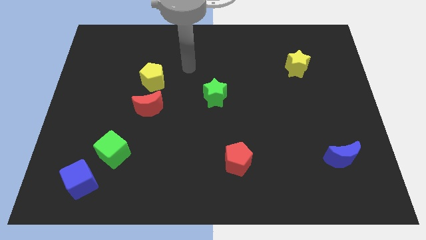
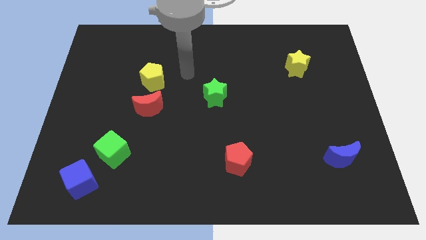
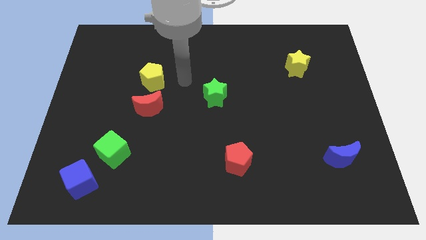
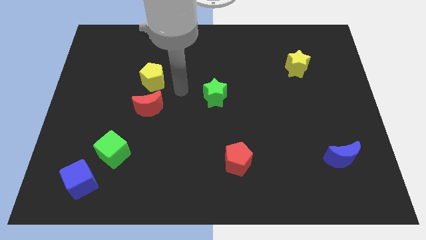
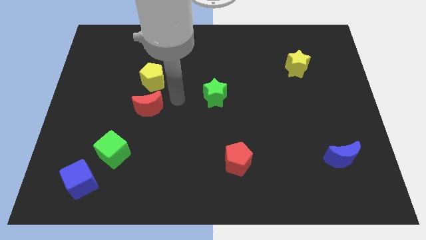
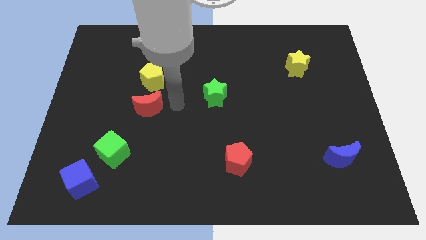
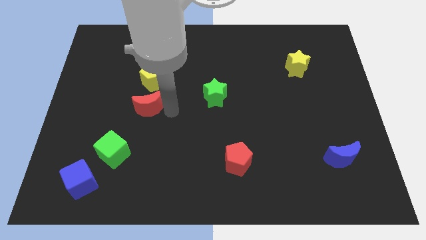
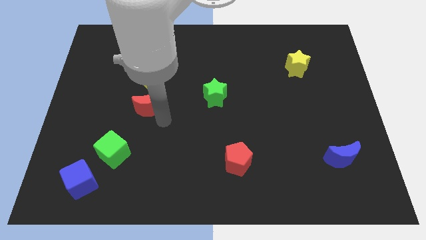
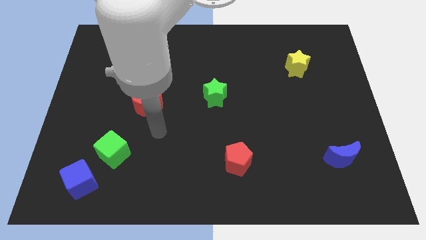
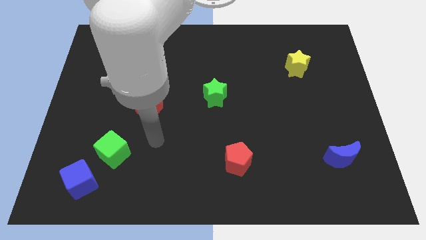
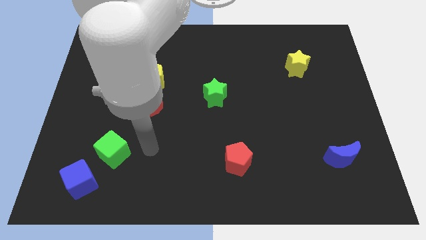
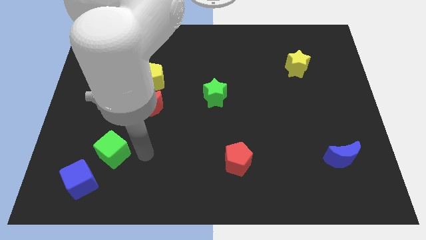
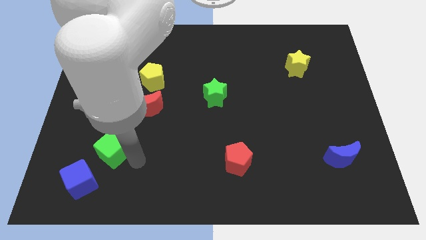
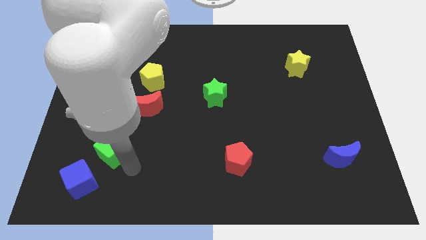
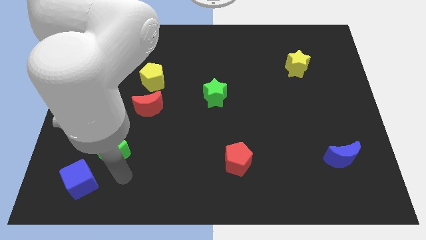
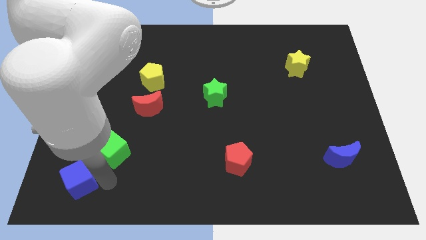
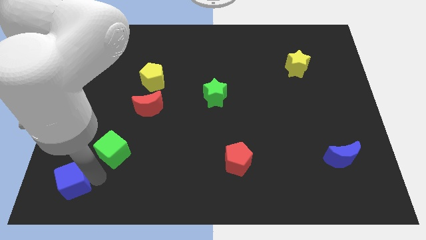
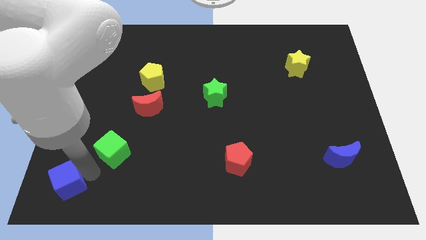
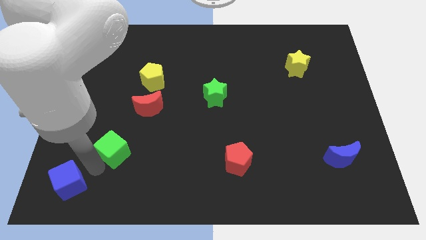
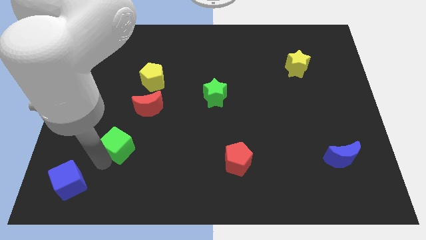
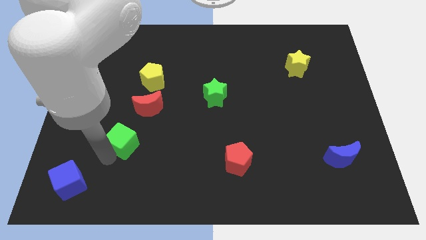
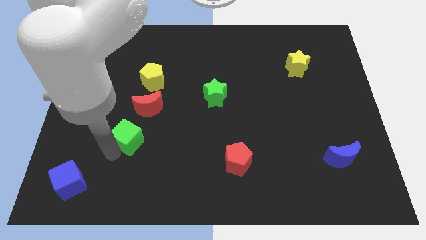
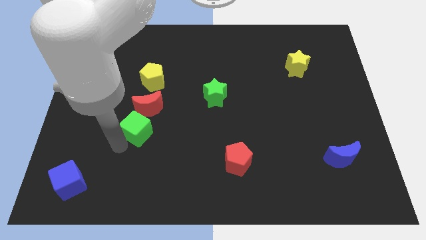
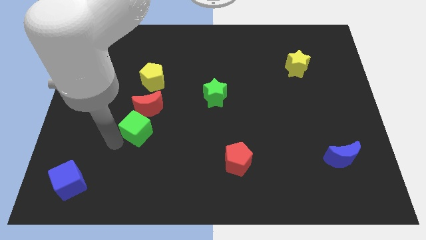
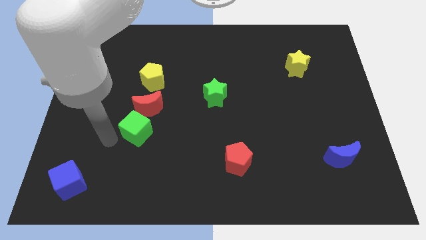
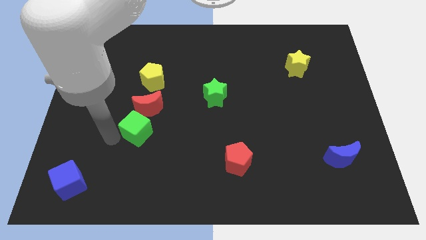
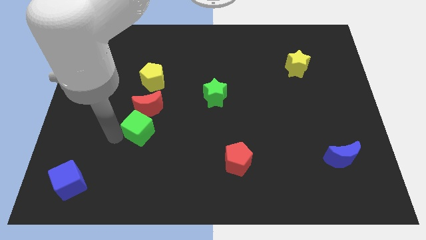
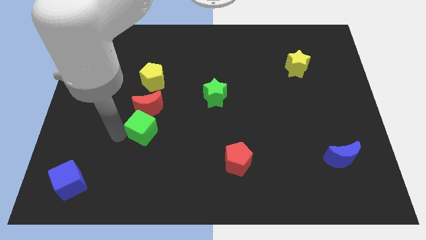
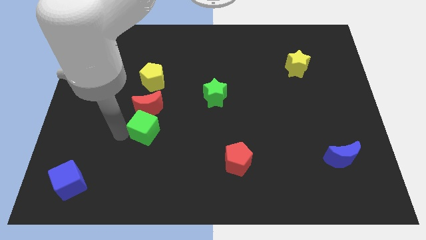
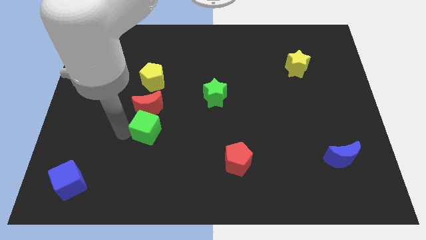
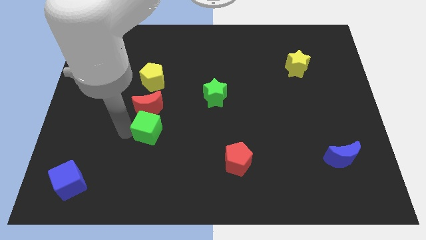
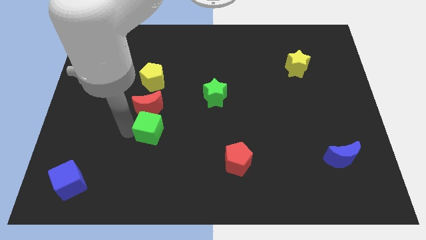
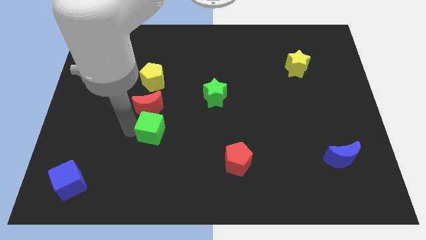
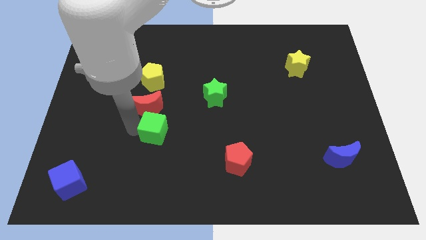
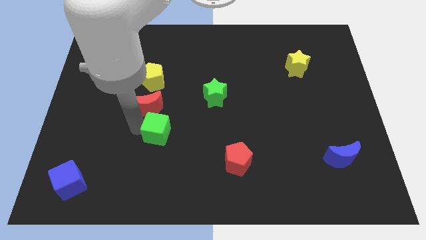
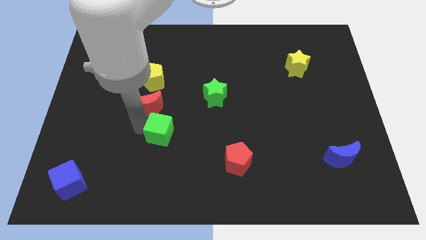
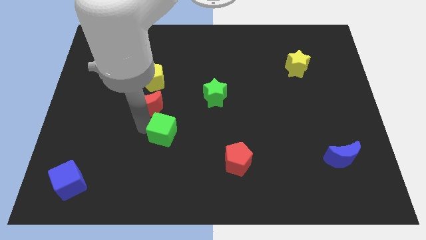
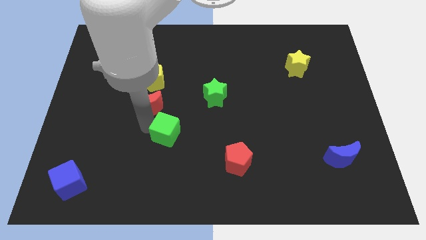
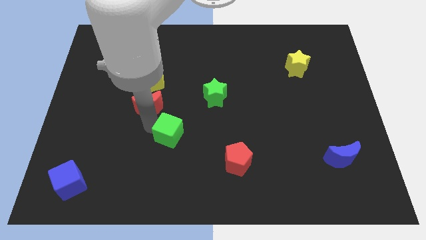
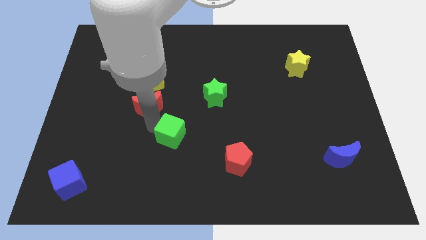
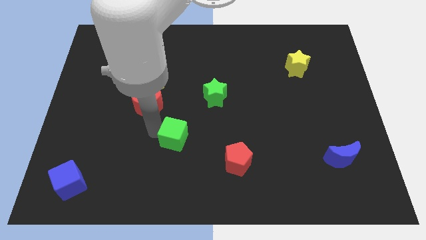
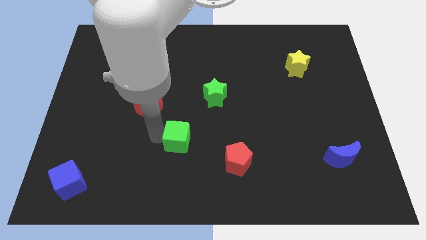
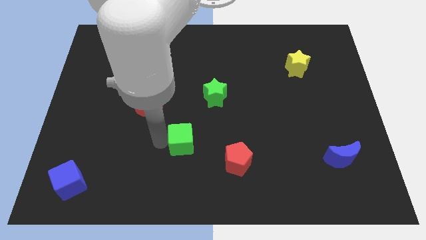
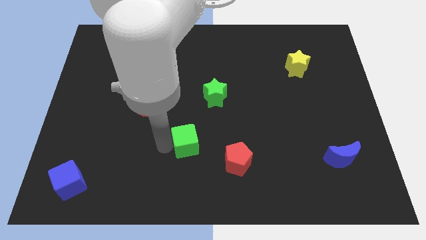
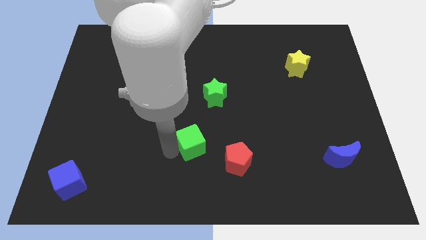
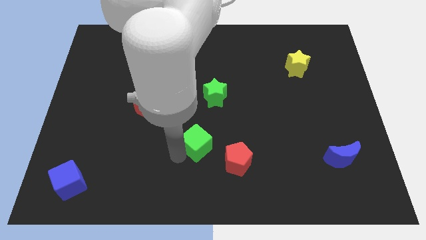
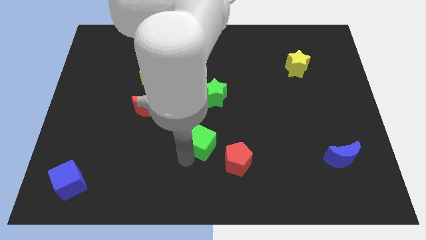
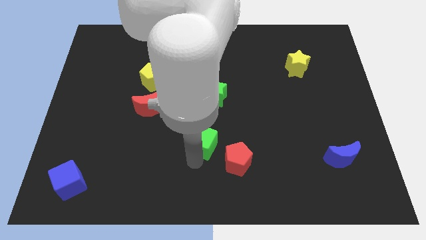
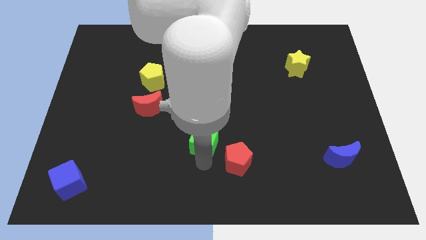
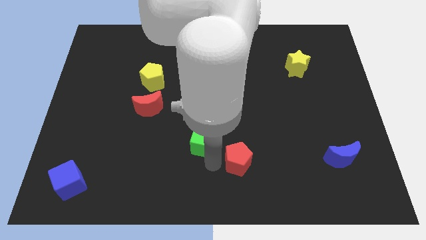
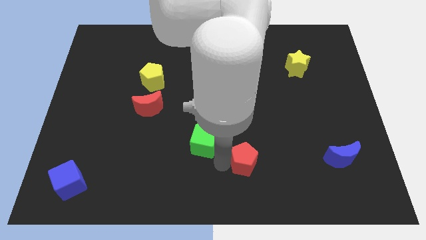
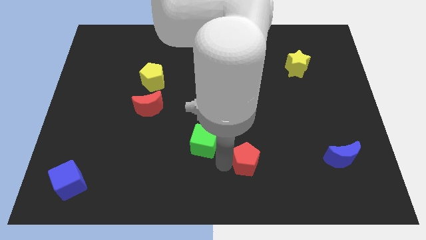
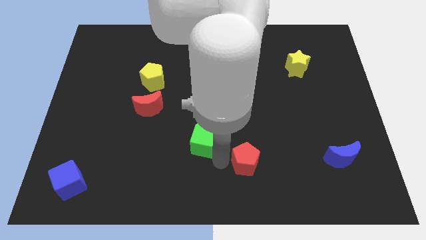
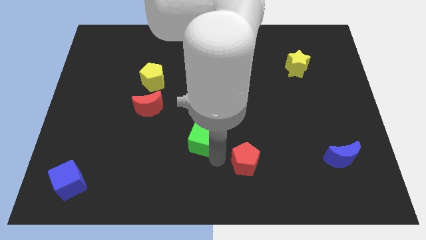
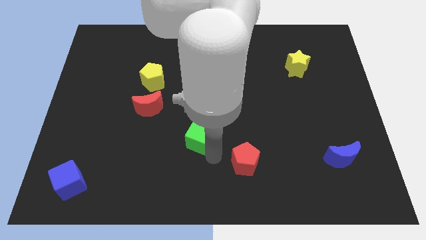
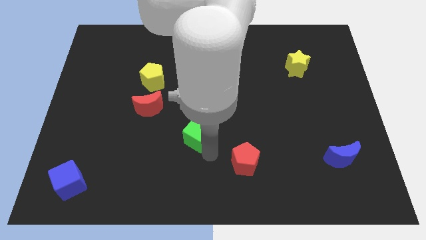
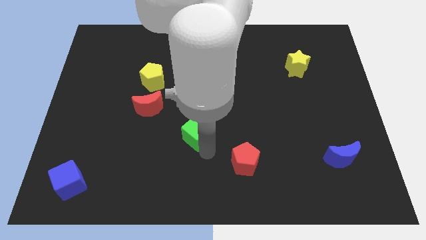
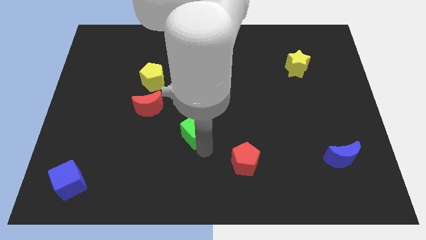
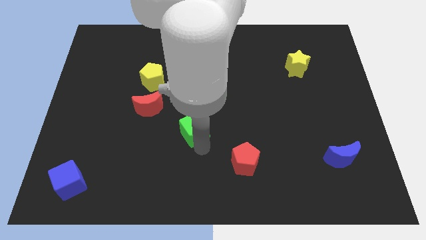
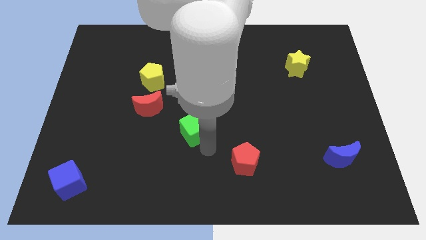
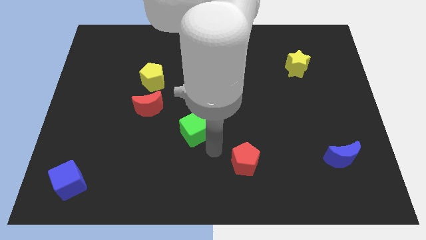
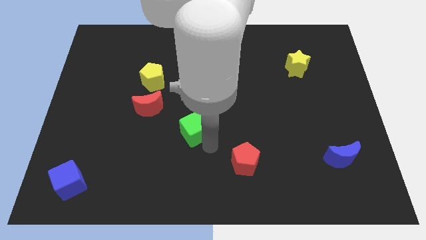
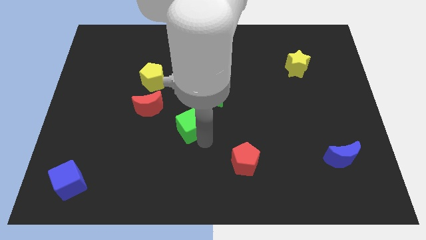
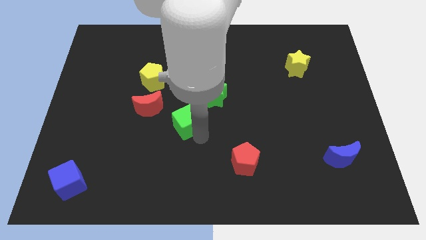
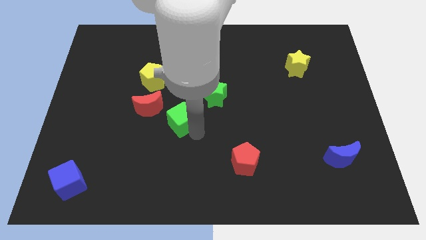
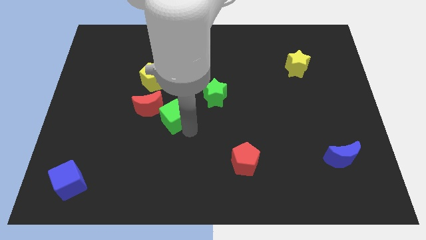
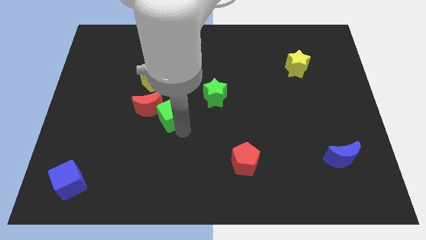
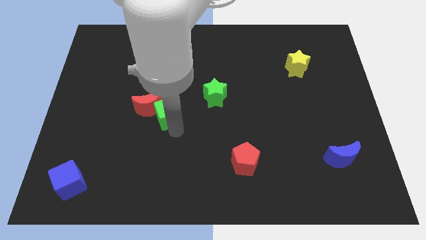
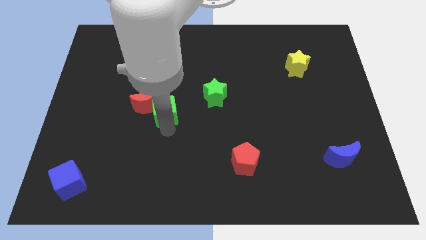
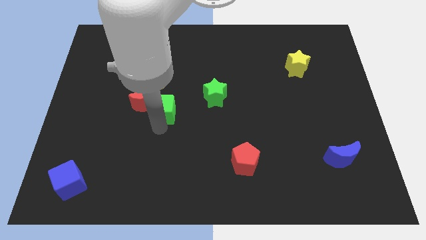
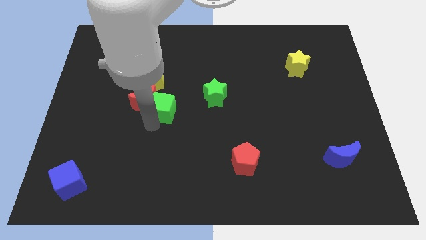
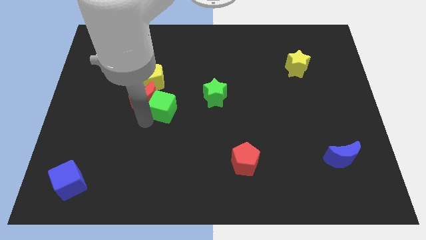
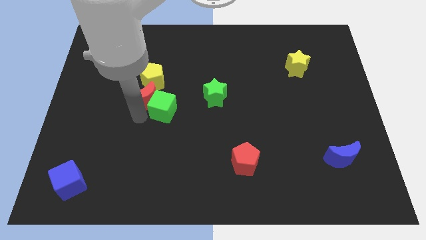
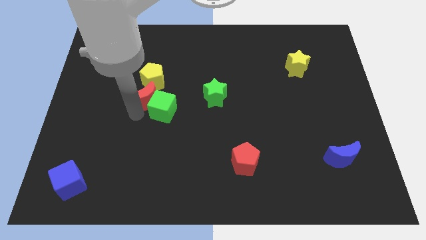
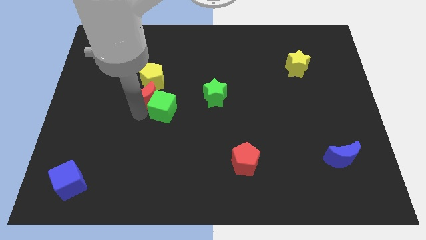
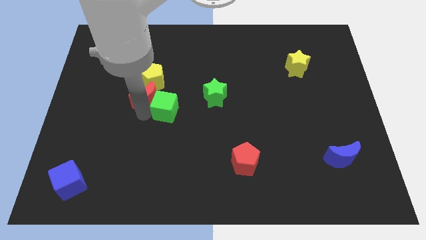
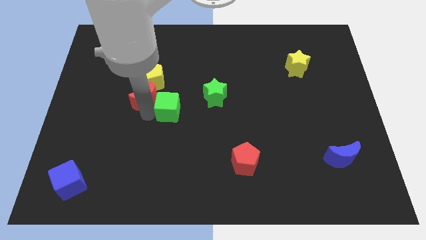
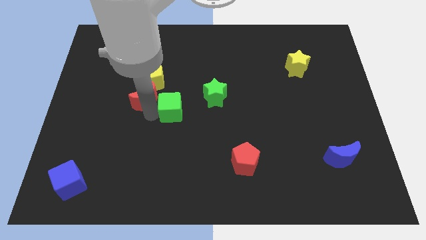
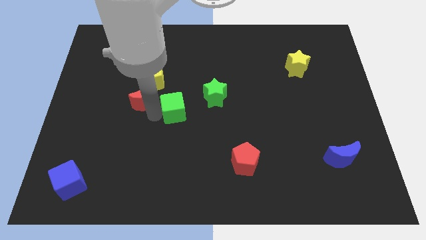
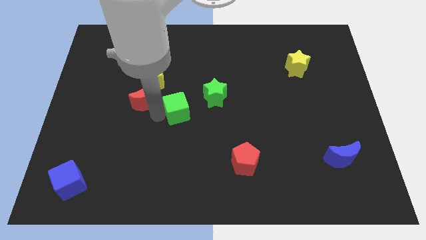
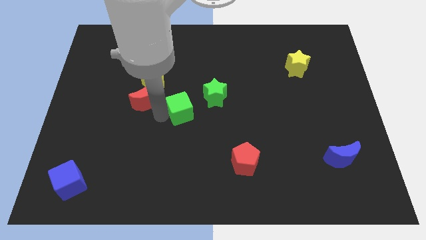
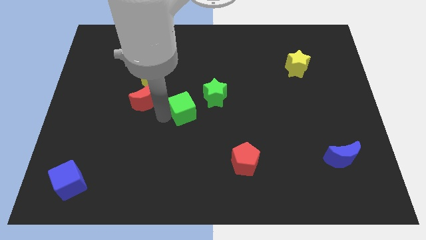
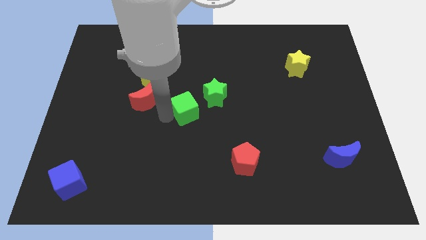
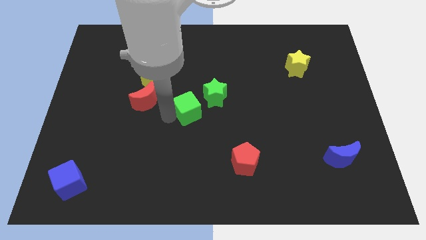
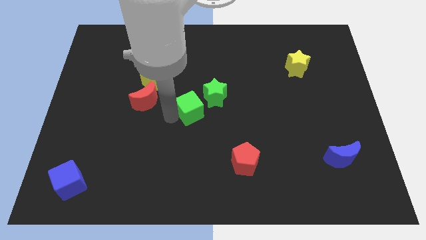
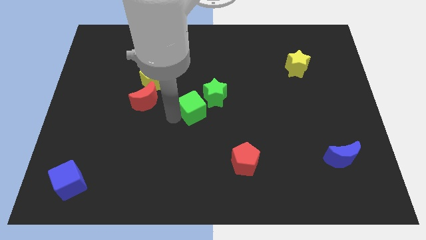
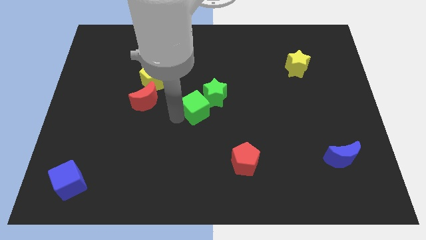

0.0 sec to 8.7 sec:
move the green cube next to the green star
